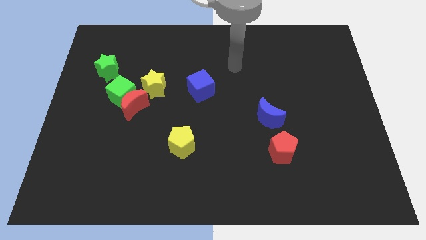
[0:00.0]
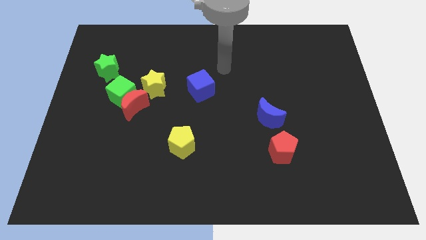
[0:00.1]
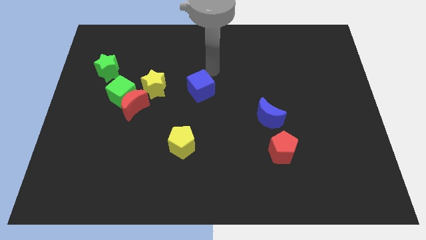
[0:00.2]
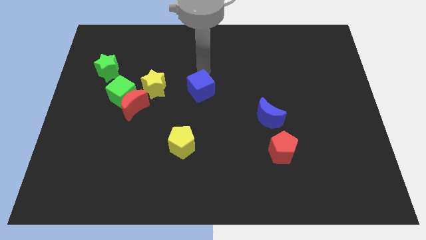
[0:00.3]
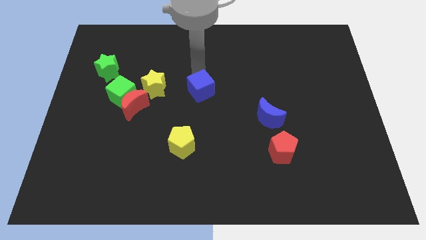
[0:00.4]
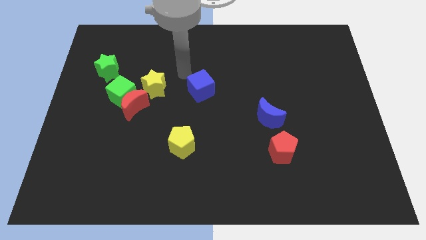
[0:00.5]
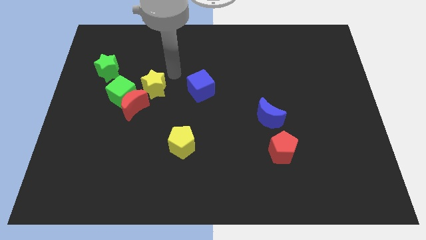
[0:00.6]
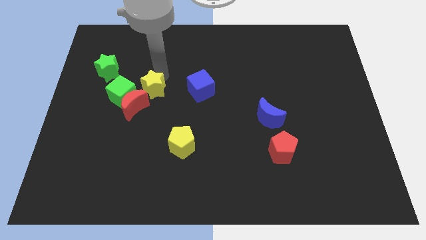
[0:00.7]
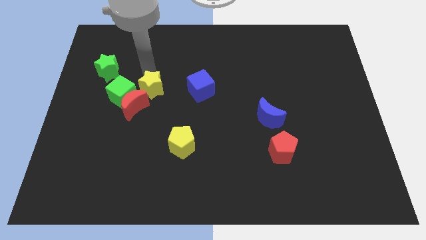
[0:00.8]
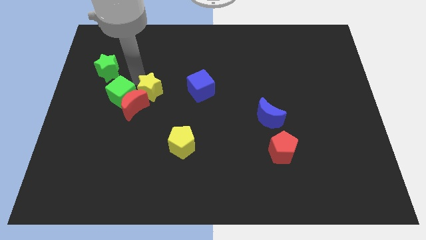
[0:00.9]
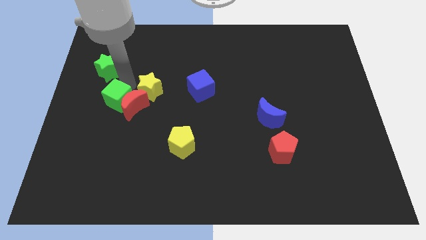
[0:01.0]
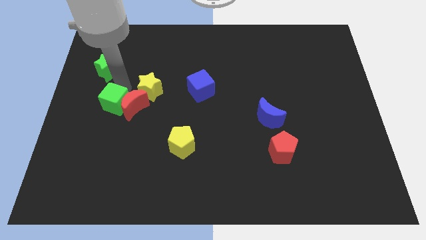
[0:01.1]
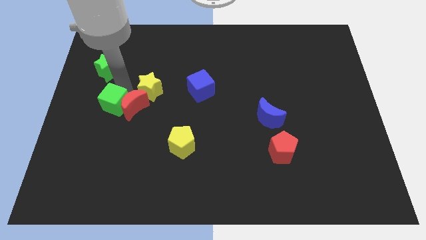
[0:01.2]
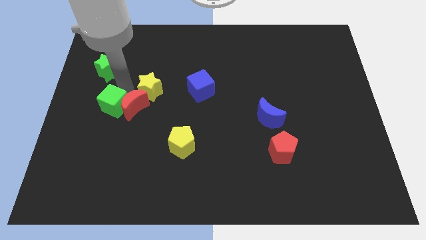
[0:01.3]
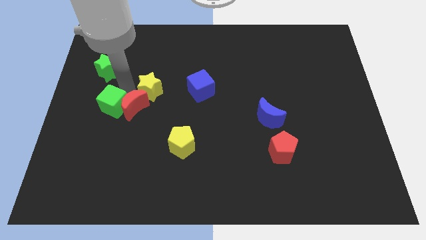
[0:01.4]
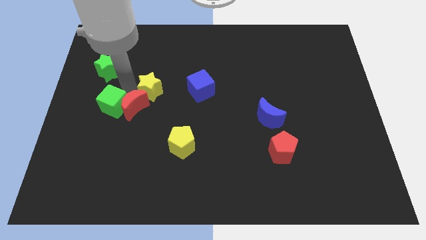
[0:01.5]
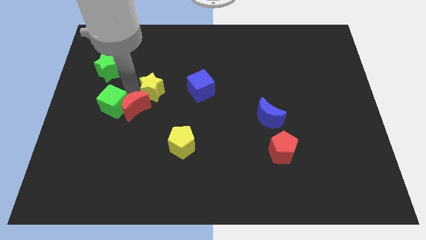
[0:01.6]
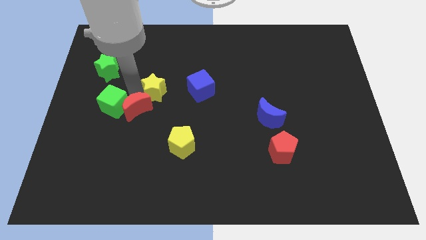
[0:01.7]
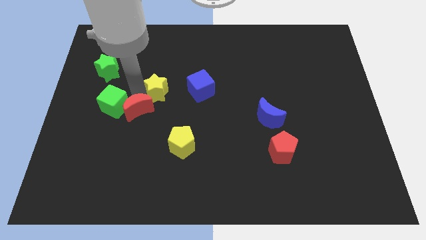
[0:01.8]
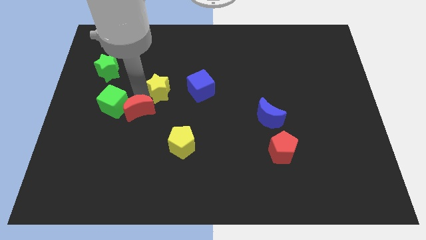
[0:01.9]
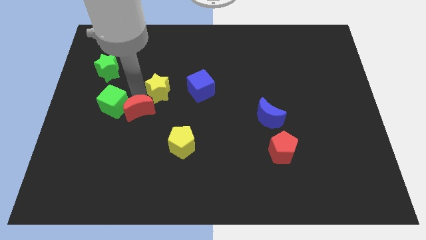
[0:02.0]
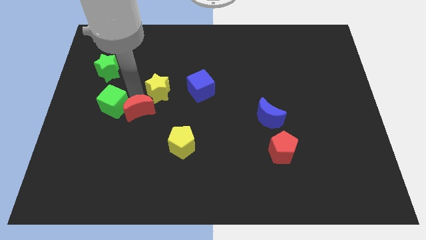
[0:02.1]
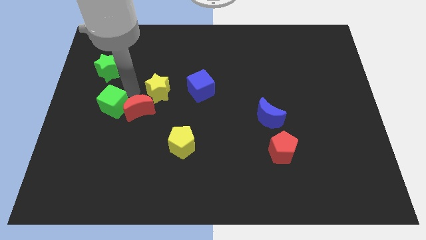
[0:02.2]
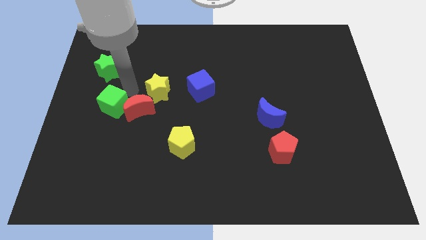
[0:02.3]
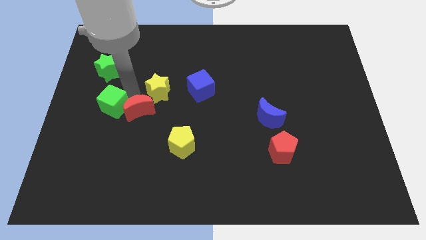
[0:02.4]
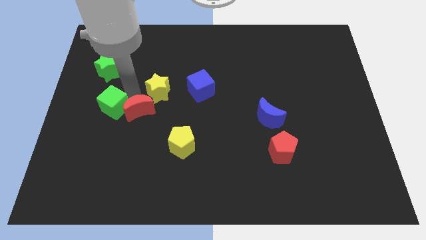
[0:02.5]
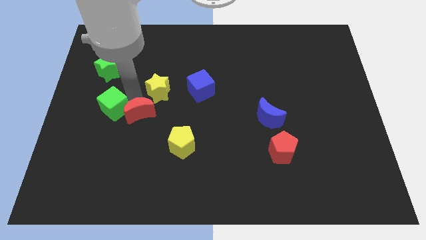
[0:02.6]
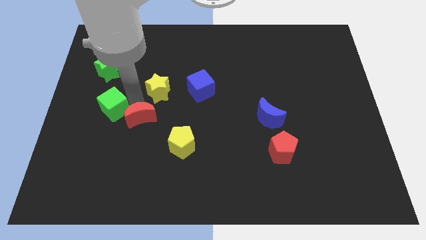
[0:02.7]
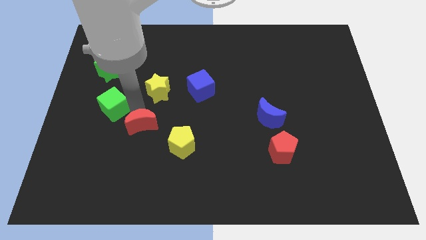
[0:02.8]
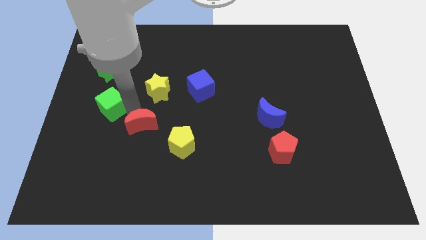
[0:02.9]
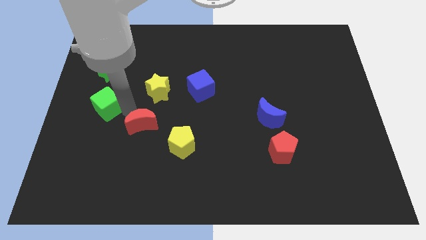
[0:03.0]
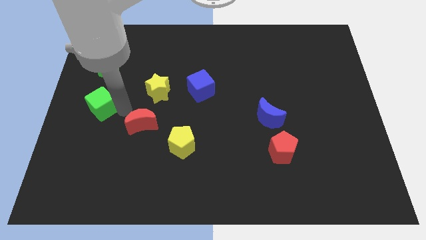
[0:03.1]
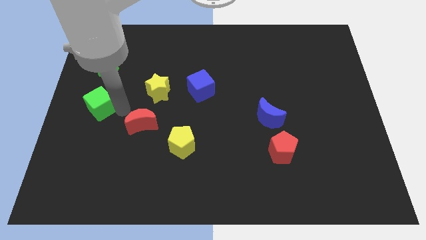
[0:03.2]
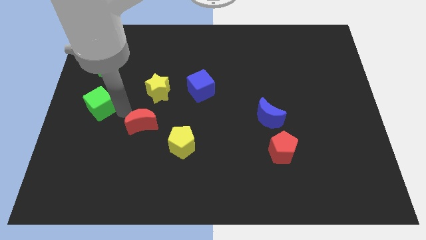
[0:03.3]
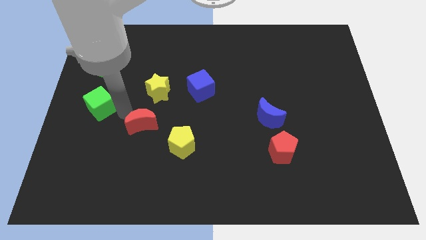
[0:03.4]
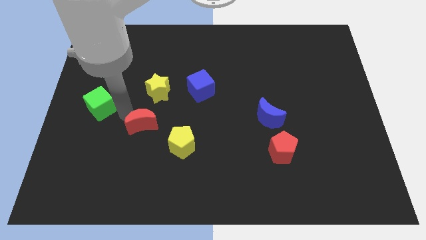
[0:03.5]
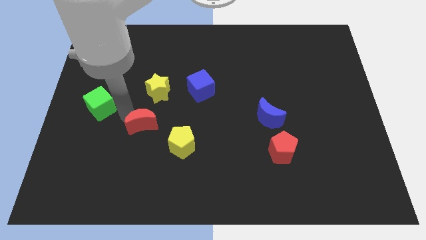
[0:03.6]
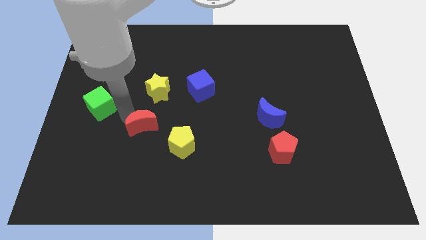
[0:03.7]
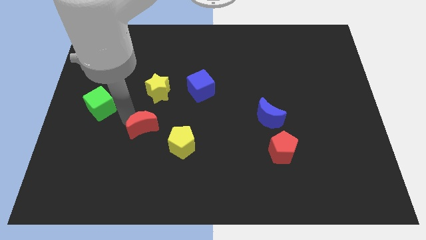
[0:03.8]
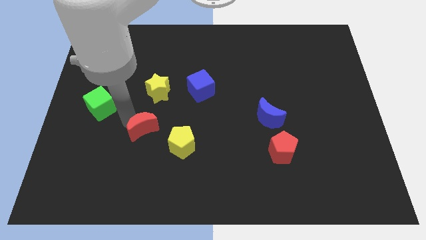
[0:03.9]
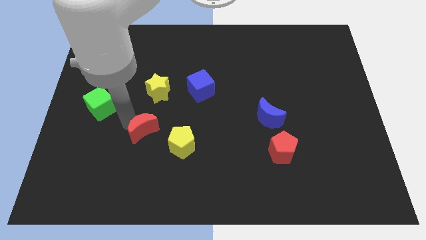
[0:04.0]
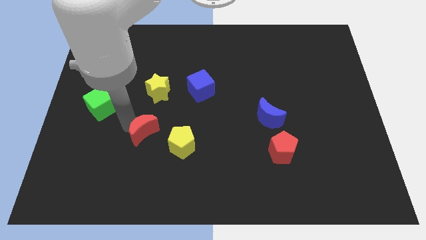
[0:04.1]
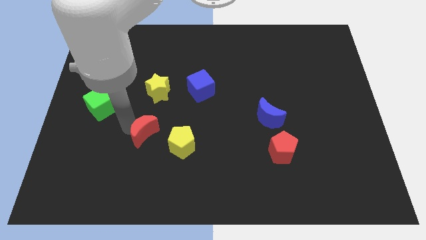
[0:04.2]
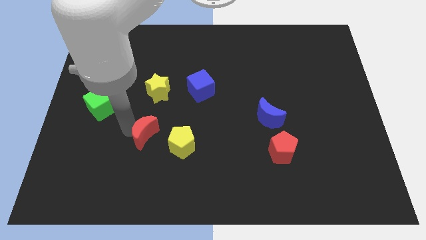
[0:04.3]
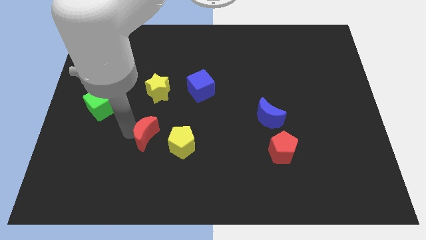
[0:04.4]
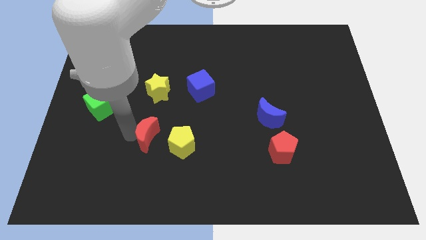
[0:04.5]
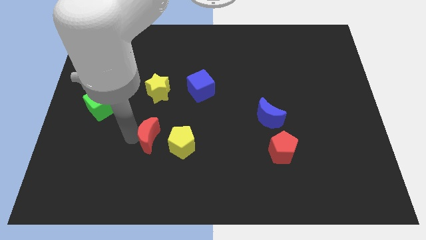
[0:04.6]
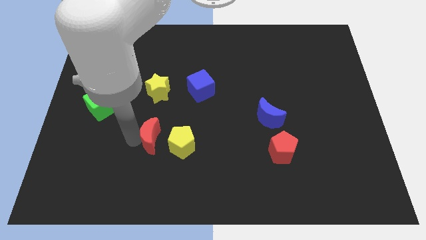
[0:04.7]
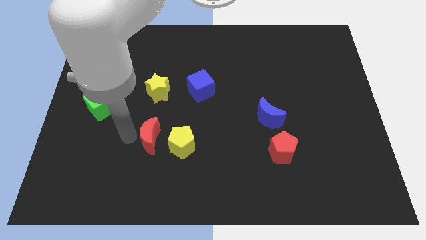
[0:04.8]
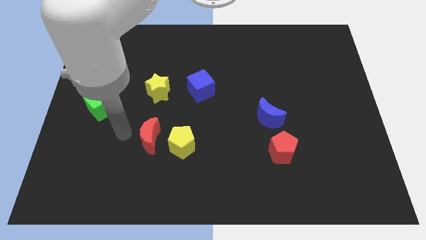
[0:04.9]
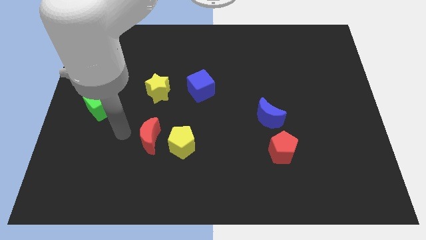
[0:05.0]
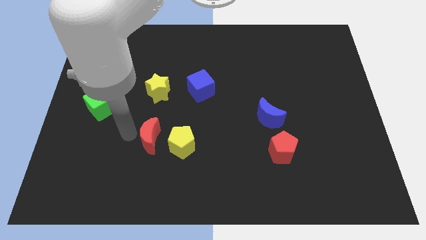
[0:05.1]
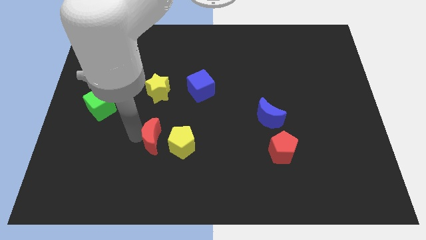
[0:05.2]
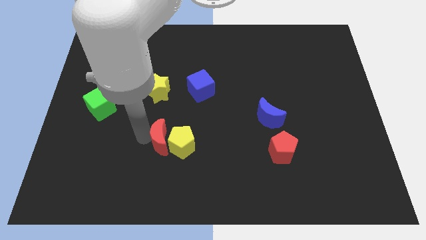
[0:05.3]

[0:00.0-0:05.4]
slide the red moon next to the yellow pentagon

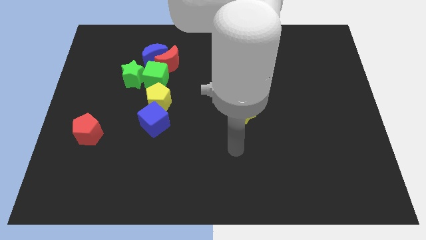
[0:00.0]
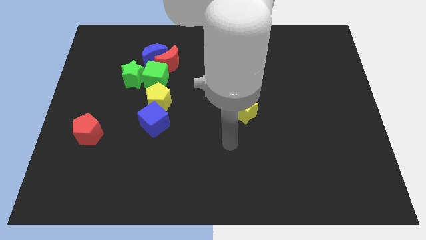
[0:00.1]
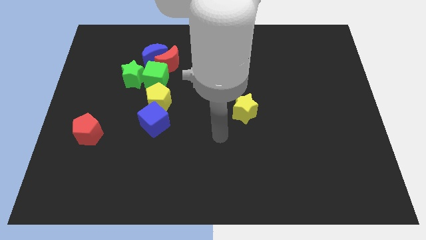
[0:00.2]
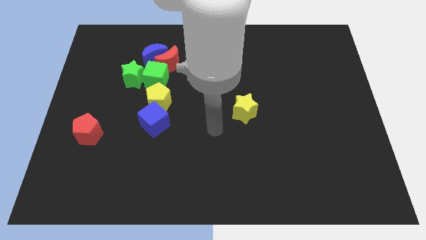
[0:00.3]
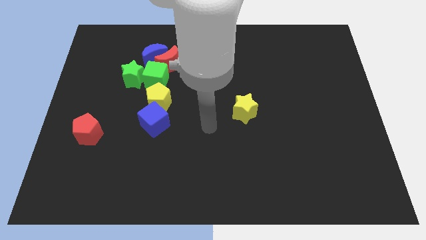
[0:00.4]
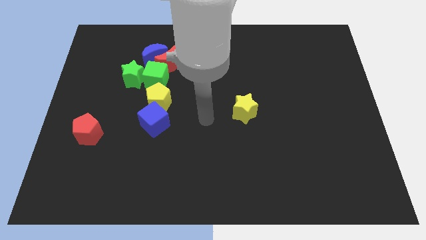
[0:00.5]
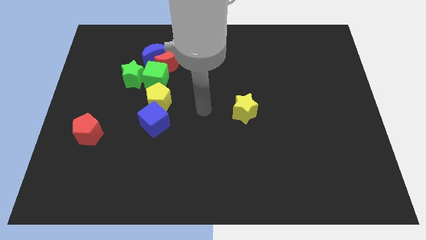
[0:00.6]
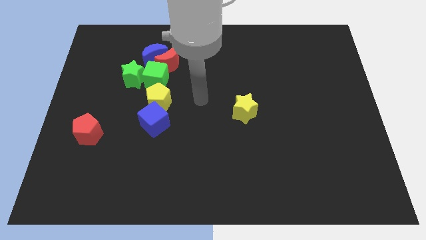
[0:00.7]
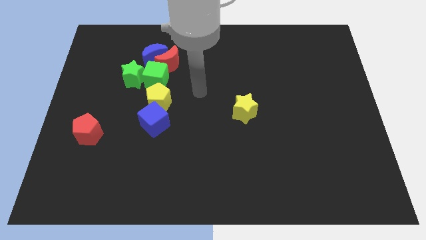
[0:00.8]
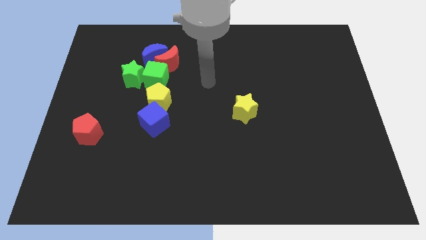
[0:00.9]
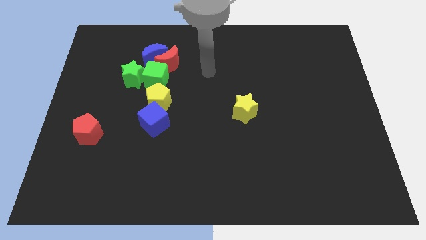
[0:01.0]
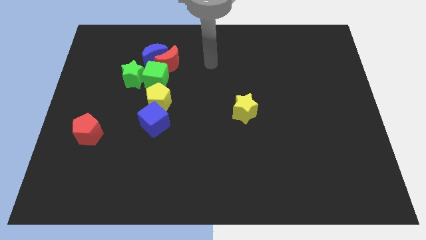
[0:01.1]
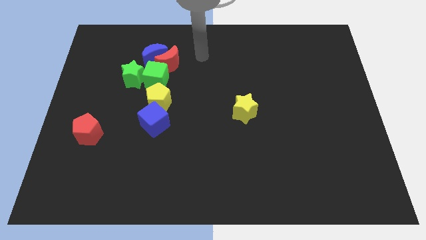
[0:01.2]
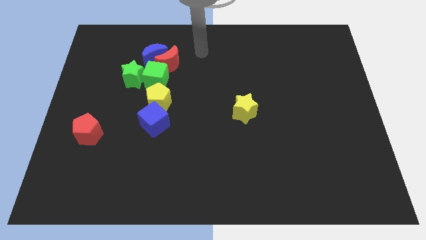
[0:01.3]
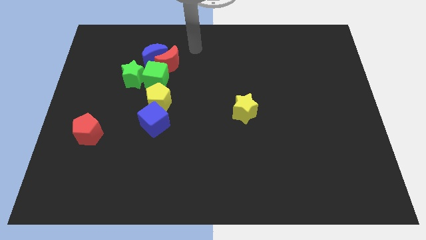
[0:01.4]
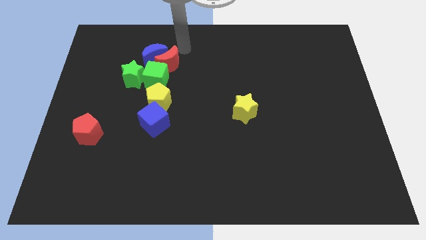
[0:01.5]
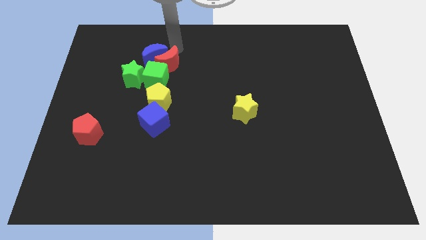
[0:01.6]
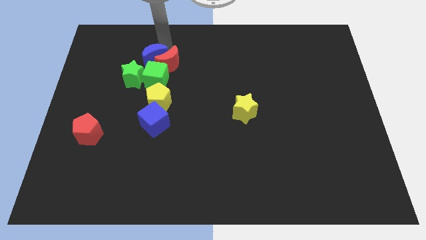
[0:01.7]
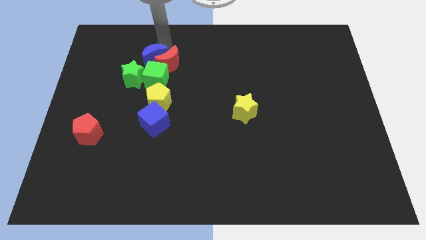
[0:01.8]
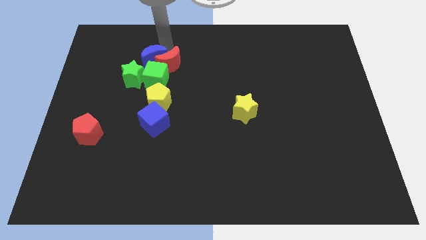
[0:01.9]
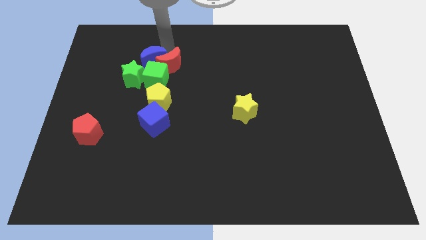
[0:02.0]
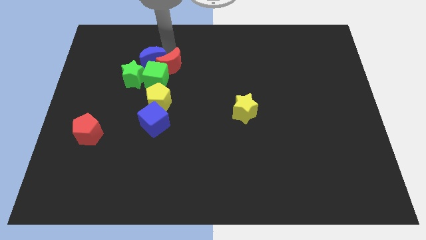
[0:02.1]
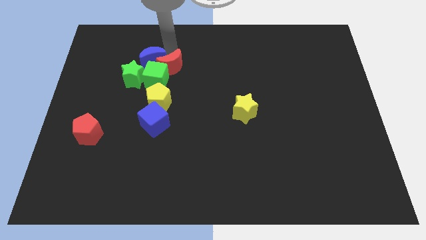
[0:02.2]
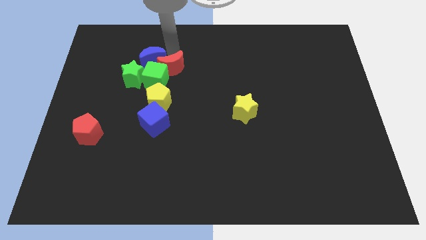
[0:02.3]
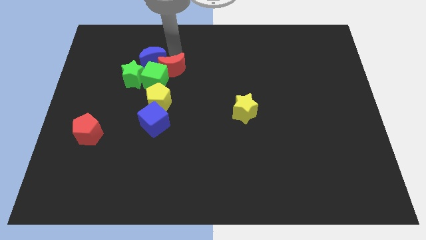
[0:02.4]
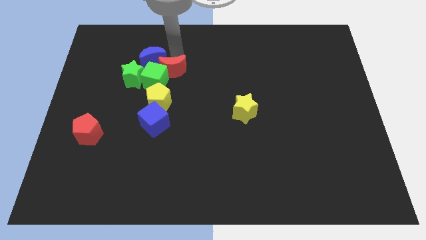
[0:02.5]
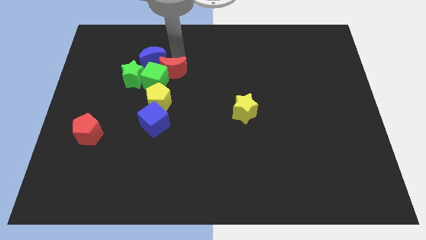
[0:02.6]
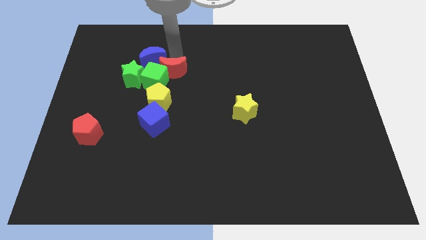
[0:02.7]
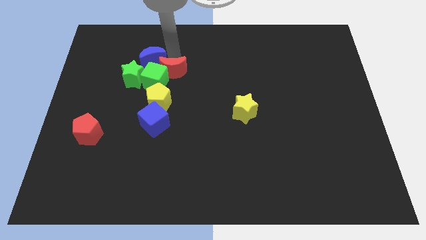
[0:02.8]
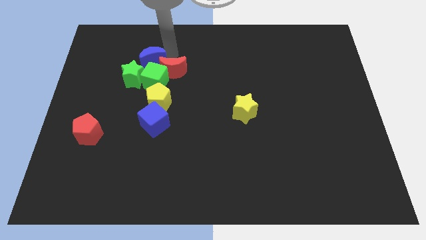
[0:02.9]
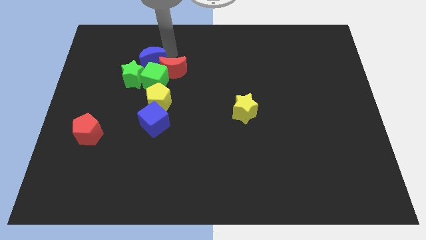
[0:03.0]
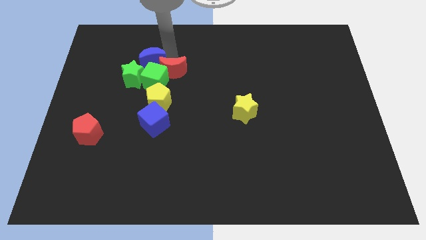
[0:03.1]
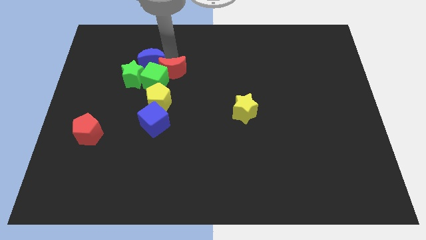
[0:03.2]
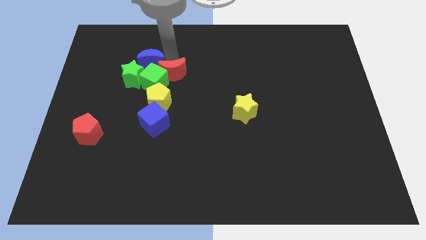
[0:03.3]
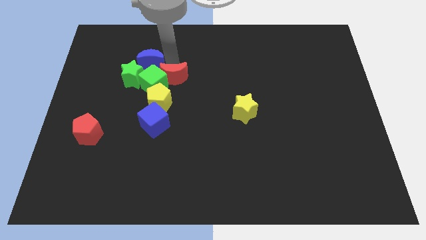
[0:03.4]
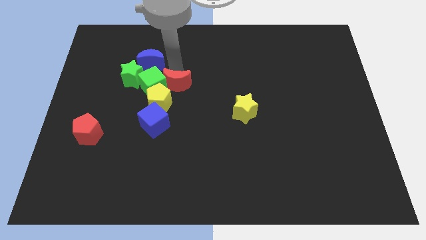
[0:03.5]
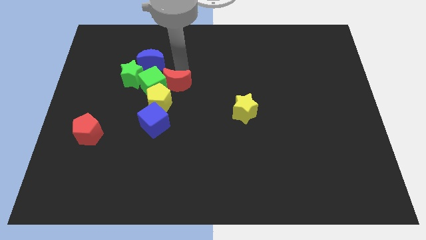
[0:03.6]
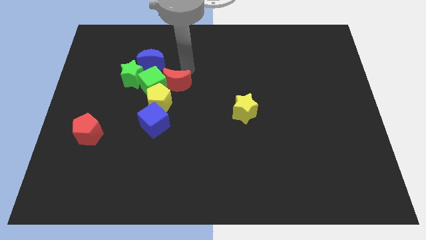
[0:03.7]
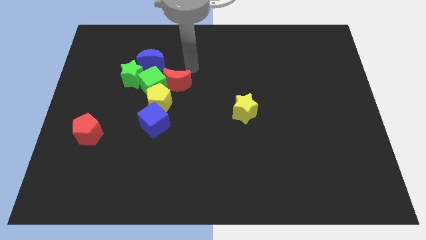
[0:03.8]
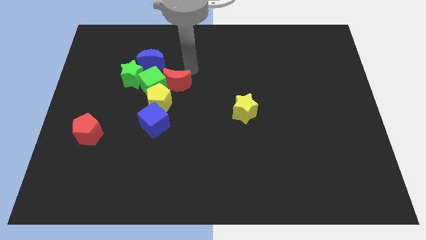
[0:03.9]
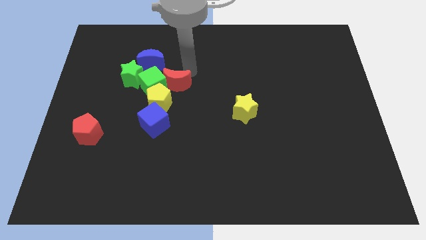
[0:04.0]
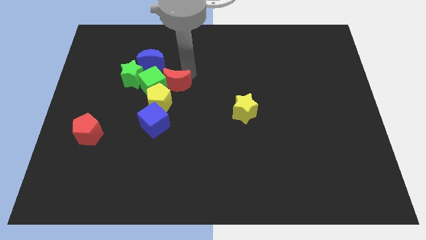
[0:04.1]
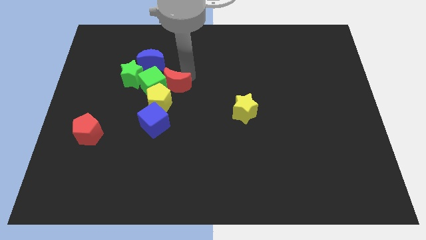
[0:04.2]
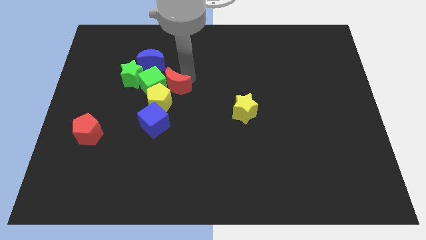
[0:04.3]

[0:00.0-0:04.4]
put the red moon to the yellow pentagon
